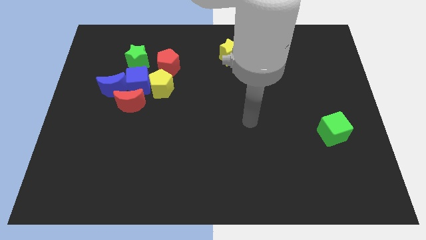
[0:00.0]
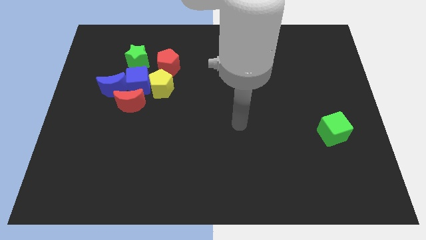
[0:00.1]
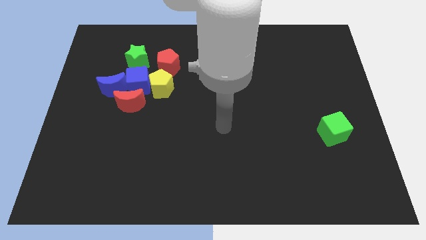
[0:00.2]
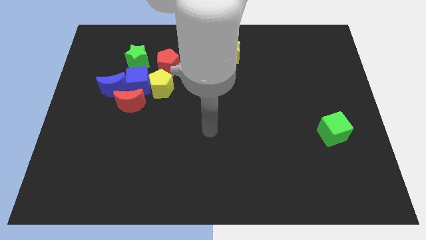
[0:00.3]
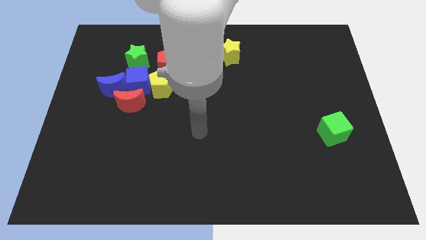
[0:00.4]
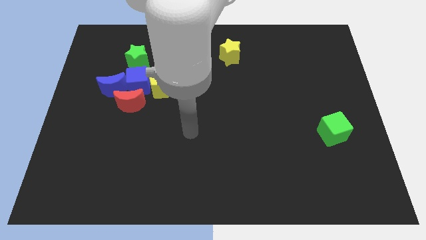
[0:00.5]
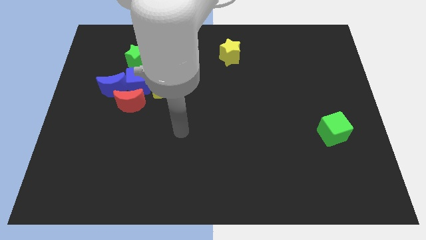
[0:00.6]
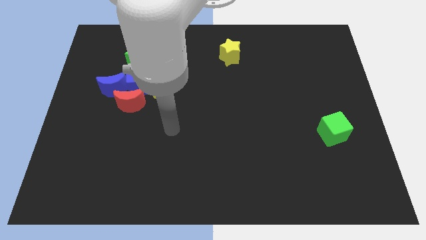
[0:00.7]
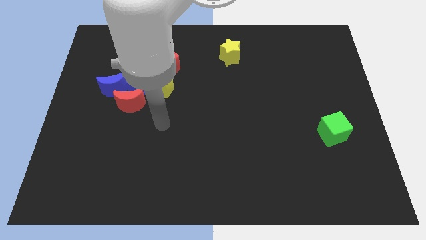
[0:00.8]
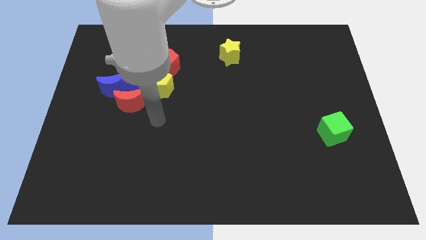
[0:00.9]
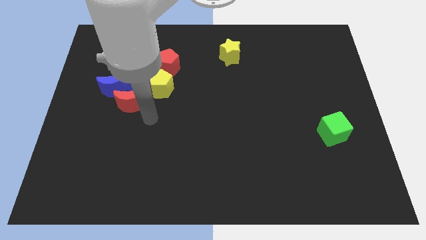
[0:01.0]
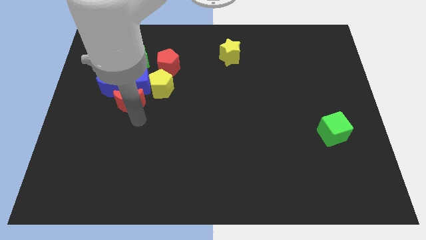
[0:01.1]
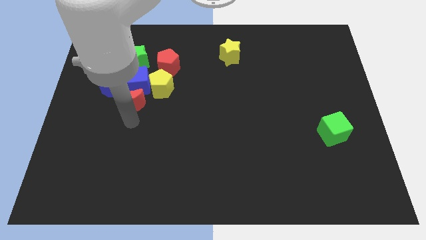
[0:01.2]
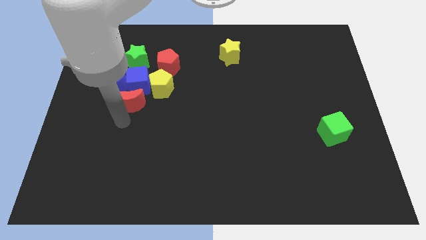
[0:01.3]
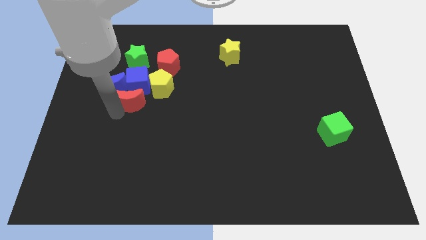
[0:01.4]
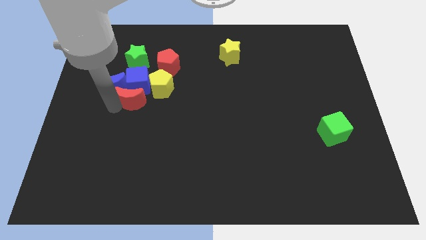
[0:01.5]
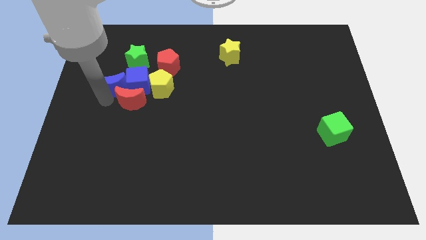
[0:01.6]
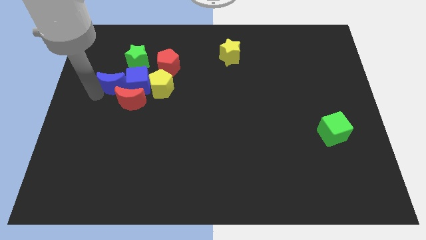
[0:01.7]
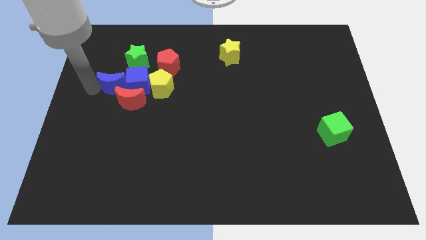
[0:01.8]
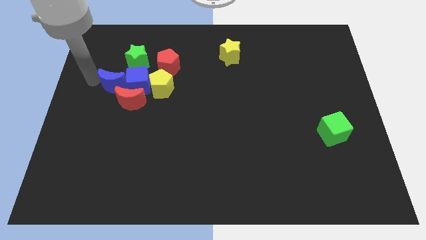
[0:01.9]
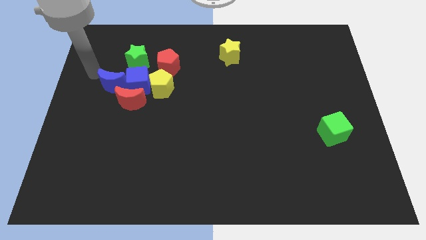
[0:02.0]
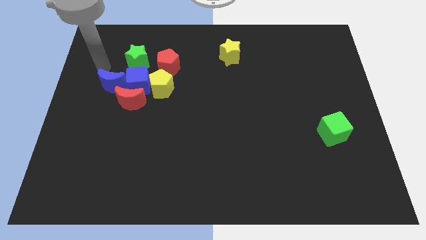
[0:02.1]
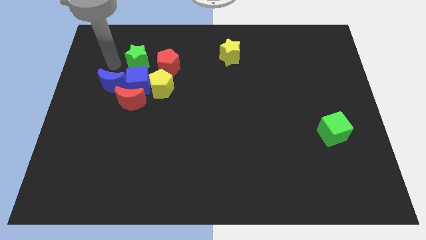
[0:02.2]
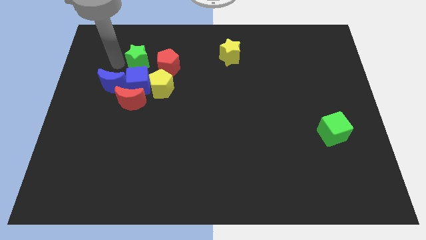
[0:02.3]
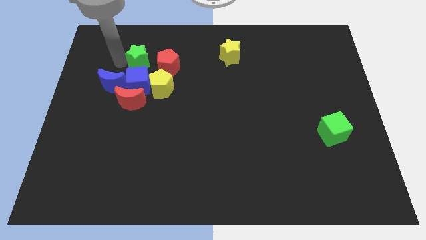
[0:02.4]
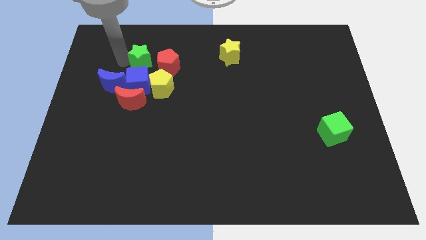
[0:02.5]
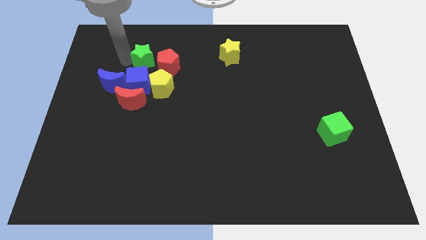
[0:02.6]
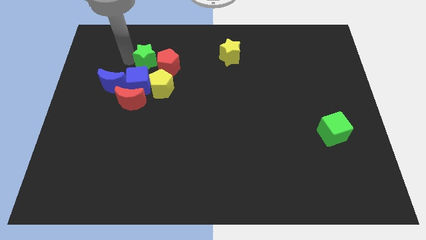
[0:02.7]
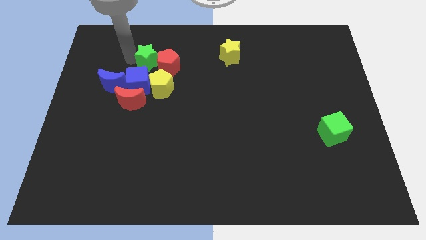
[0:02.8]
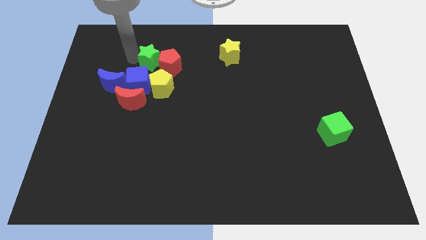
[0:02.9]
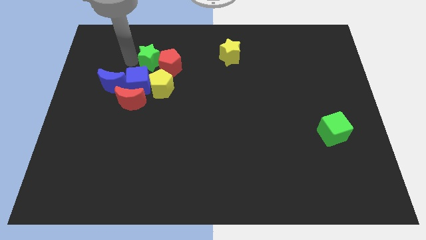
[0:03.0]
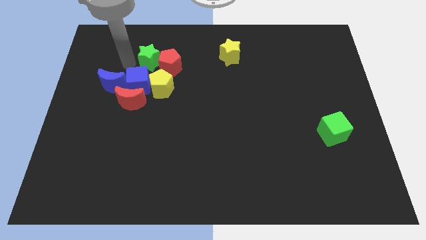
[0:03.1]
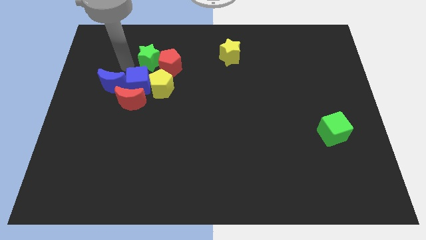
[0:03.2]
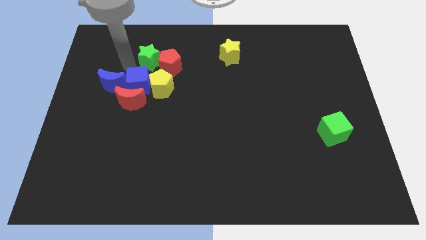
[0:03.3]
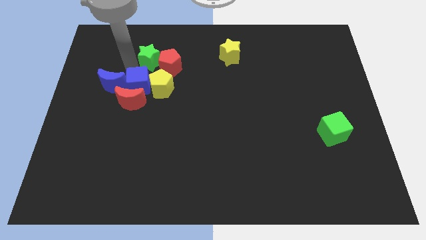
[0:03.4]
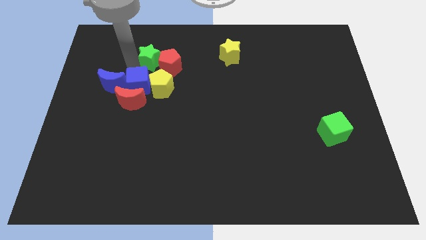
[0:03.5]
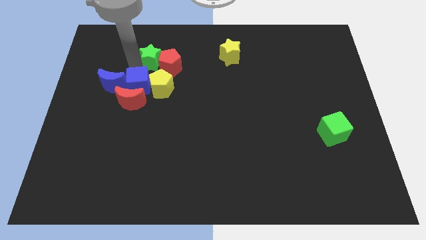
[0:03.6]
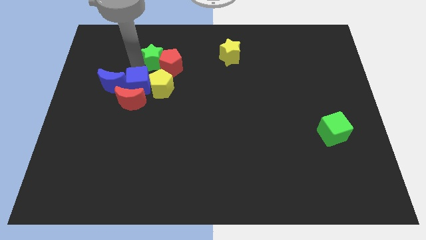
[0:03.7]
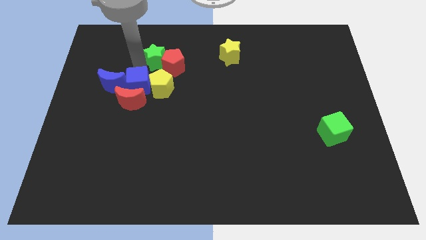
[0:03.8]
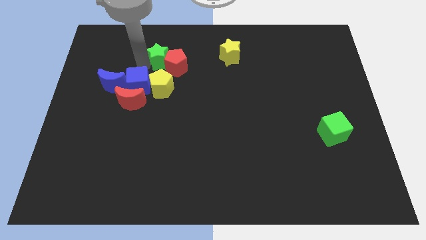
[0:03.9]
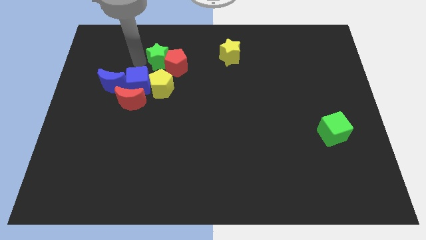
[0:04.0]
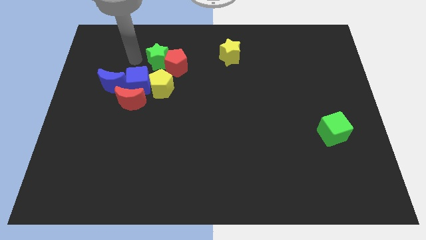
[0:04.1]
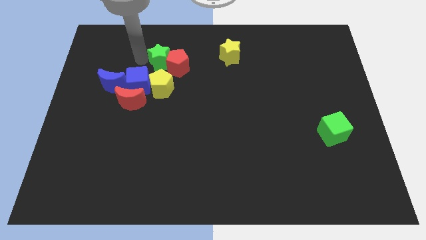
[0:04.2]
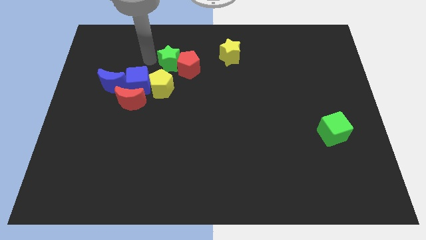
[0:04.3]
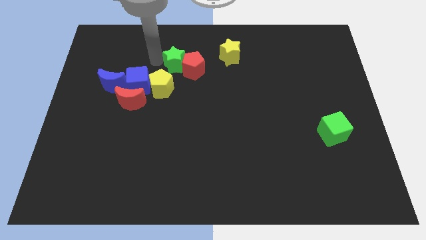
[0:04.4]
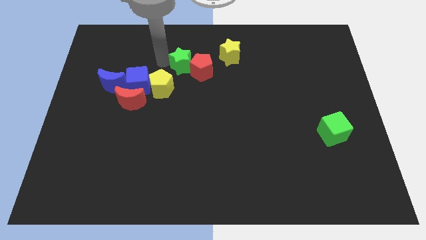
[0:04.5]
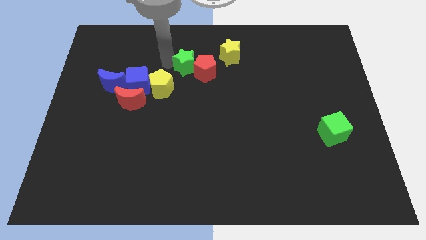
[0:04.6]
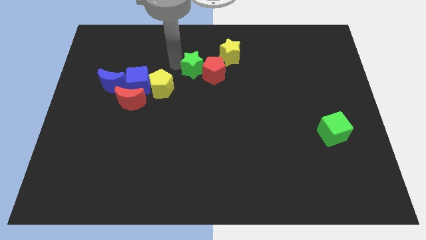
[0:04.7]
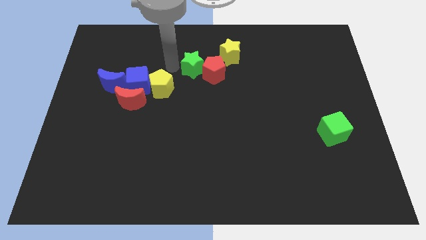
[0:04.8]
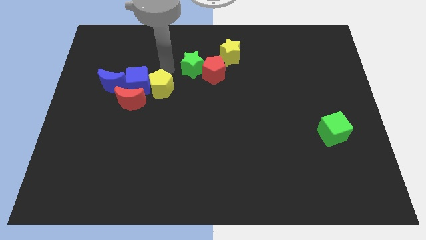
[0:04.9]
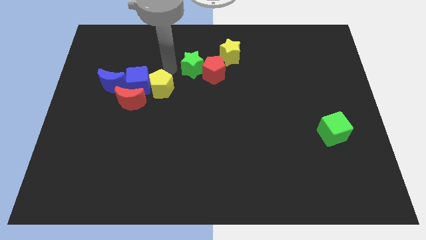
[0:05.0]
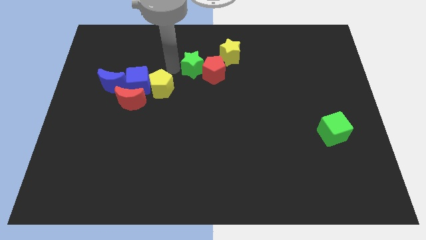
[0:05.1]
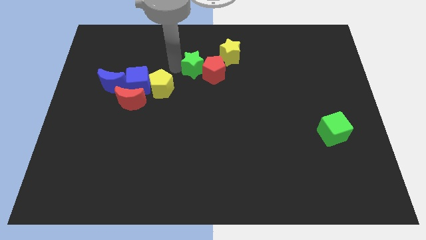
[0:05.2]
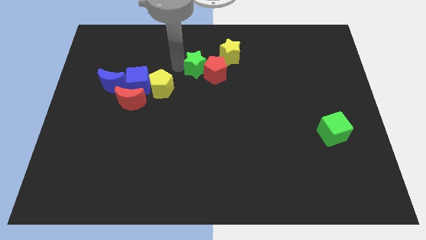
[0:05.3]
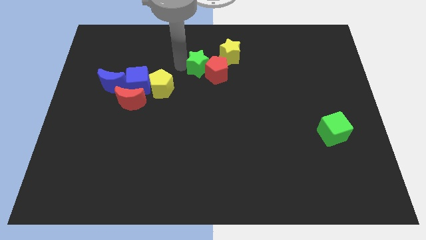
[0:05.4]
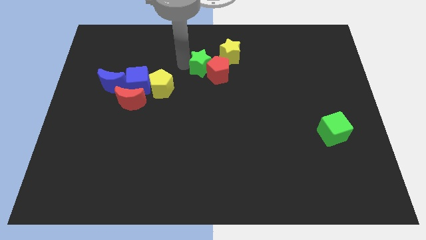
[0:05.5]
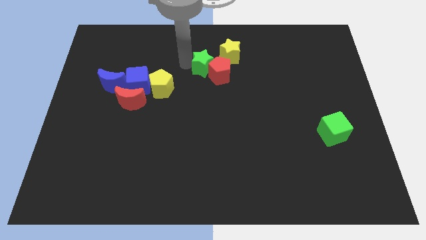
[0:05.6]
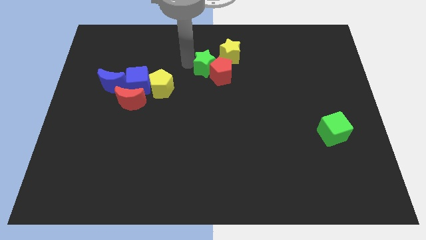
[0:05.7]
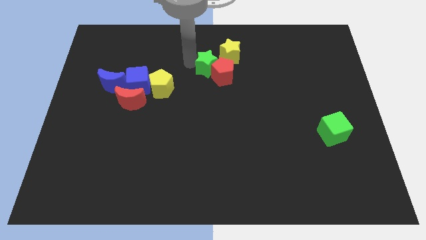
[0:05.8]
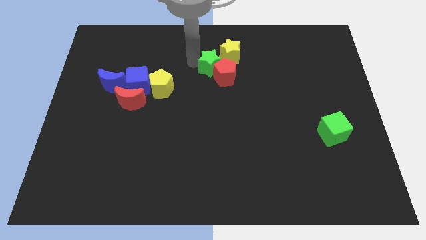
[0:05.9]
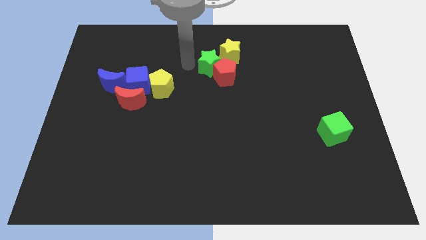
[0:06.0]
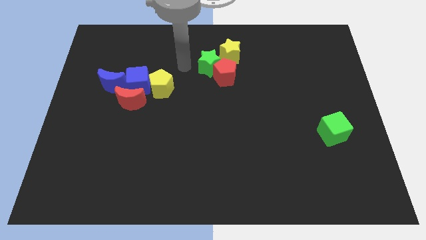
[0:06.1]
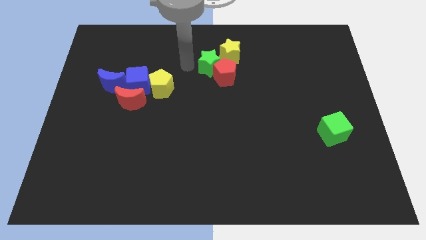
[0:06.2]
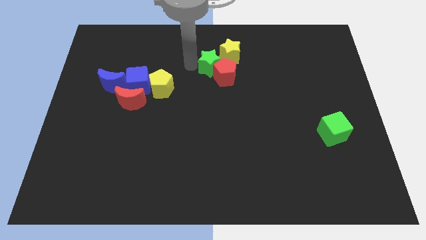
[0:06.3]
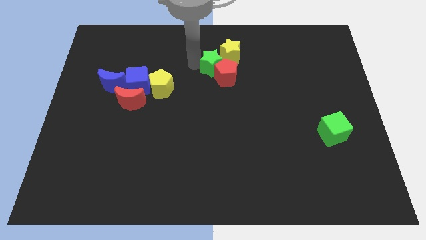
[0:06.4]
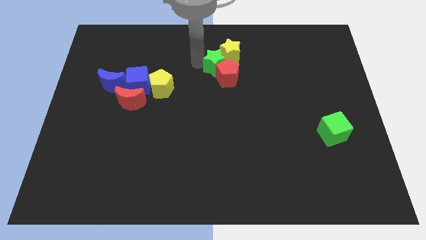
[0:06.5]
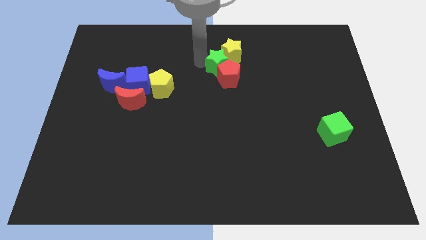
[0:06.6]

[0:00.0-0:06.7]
push the green star right

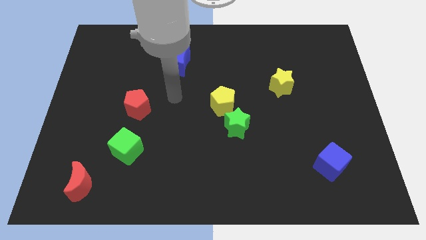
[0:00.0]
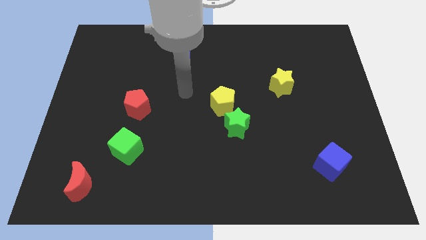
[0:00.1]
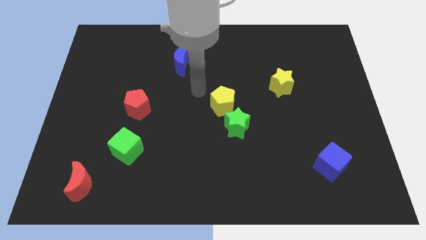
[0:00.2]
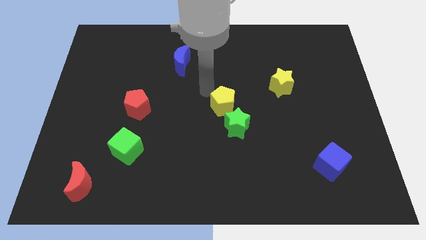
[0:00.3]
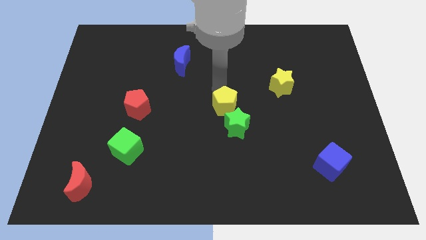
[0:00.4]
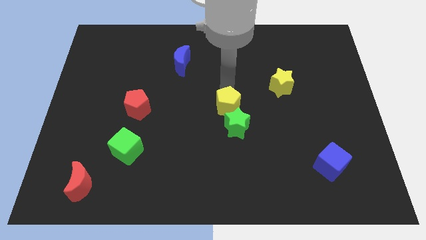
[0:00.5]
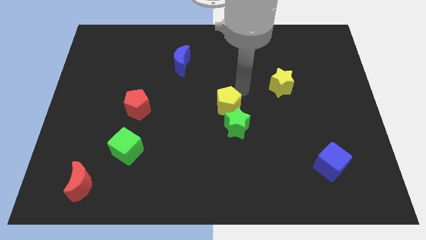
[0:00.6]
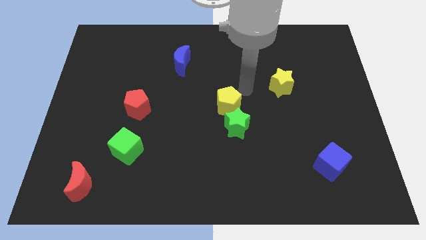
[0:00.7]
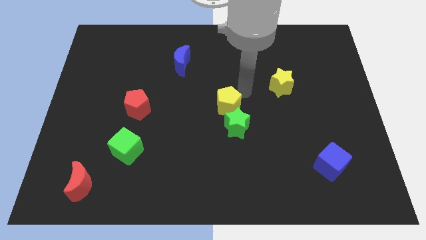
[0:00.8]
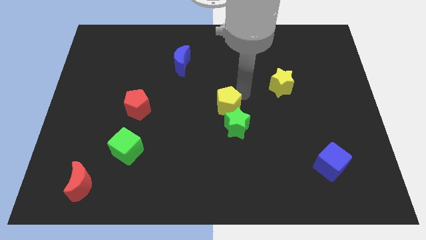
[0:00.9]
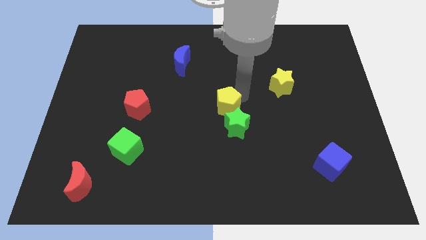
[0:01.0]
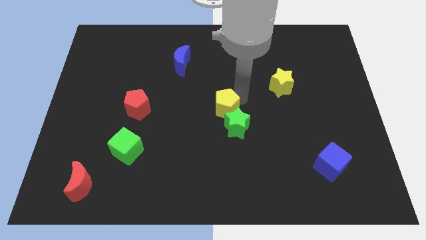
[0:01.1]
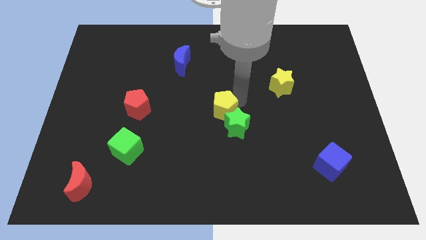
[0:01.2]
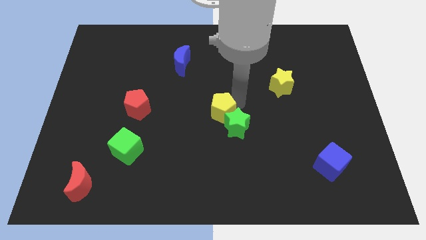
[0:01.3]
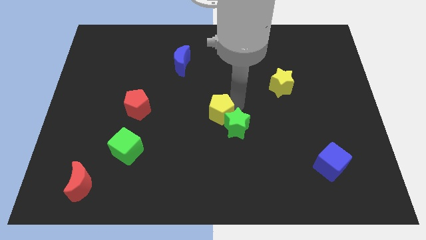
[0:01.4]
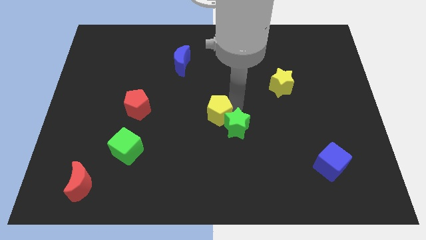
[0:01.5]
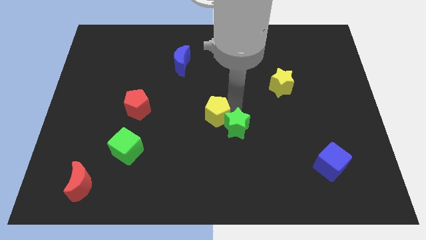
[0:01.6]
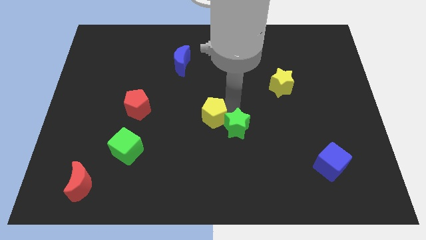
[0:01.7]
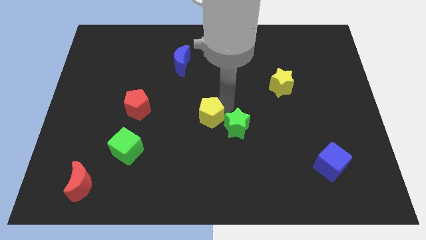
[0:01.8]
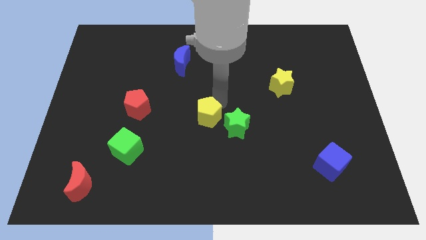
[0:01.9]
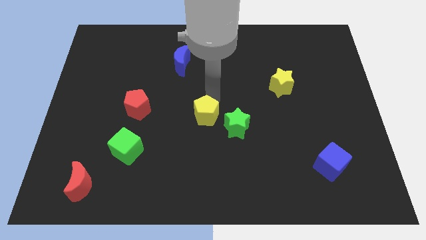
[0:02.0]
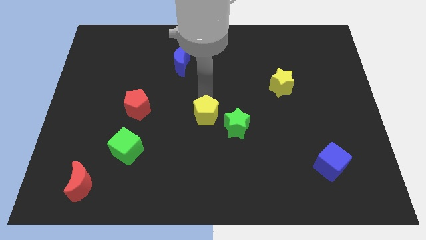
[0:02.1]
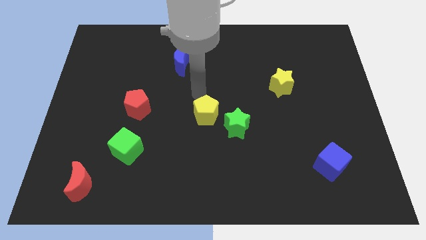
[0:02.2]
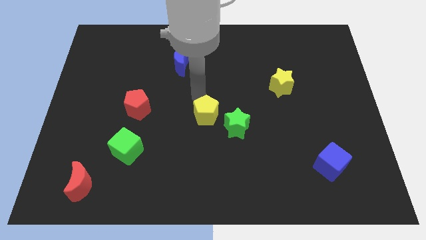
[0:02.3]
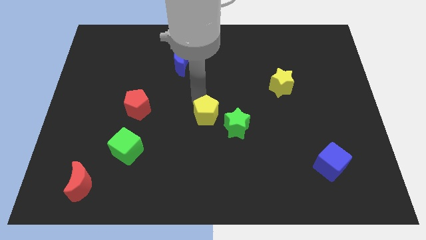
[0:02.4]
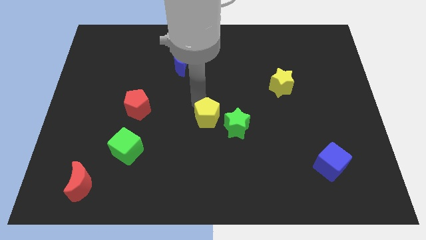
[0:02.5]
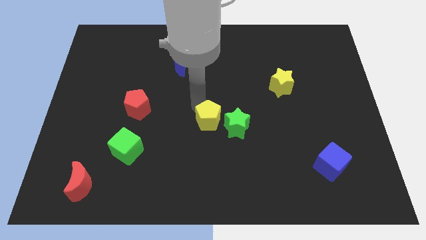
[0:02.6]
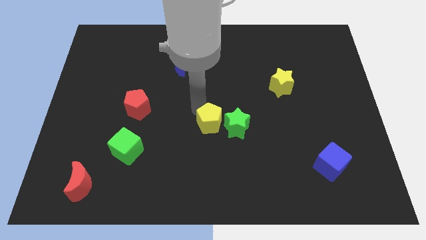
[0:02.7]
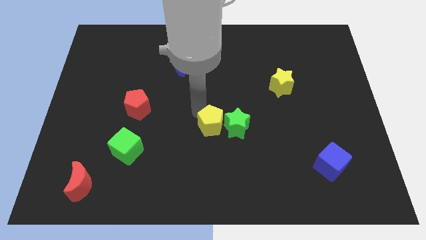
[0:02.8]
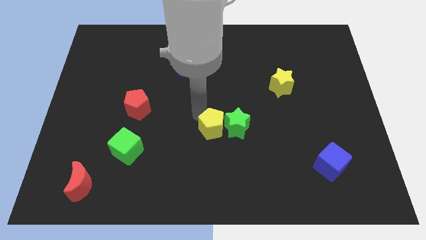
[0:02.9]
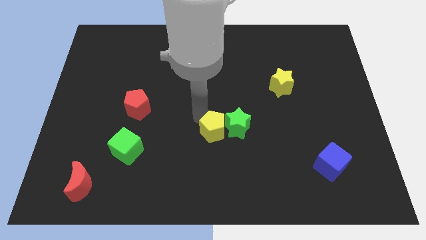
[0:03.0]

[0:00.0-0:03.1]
slide the yellow pentagon down a little bit
